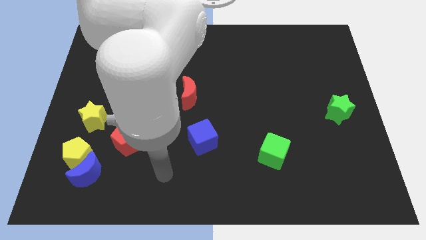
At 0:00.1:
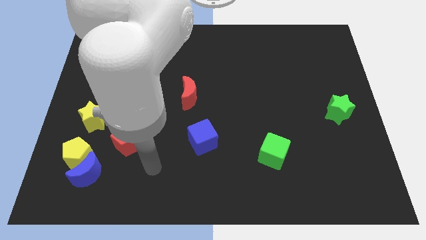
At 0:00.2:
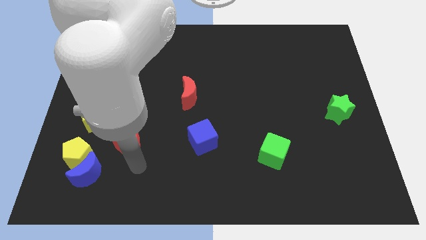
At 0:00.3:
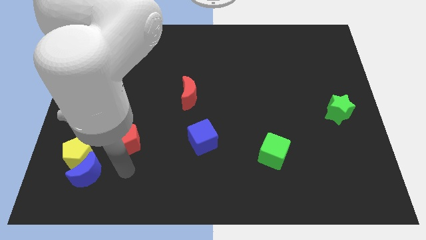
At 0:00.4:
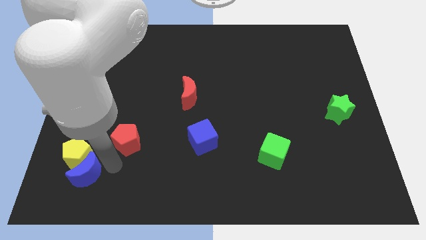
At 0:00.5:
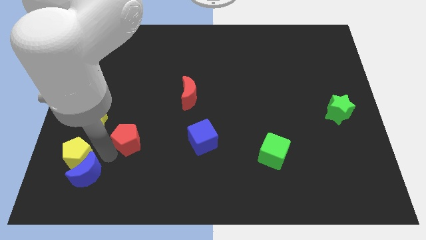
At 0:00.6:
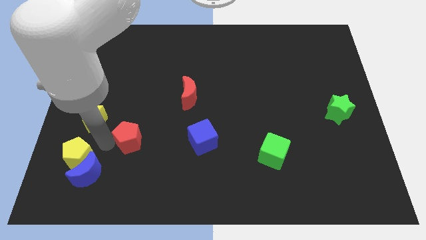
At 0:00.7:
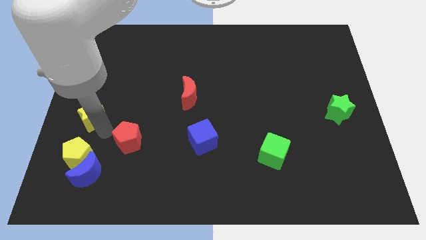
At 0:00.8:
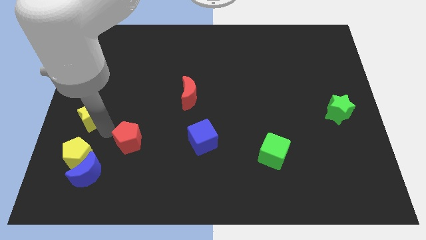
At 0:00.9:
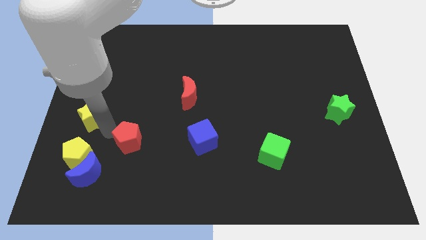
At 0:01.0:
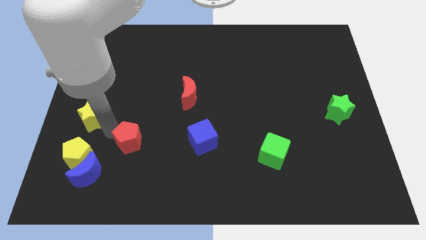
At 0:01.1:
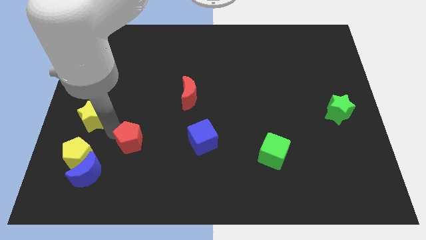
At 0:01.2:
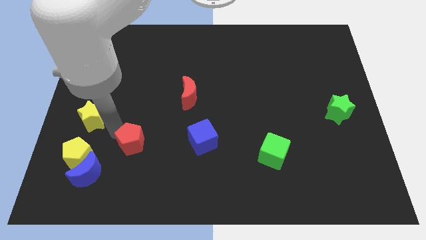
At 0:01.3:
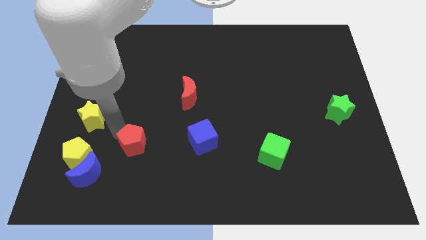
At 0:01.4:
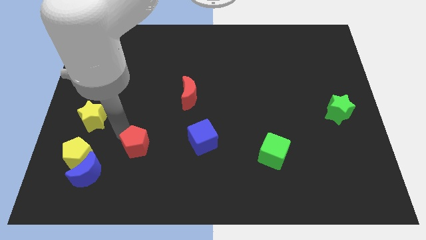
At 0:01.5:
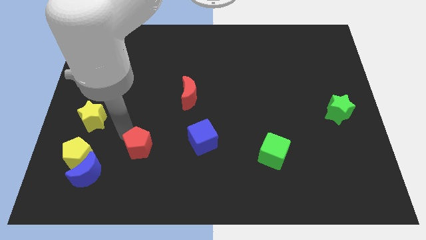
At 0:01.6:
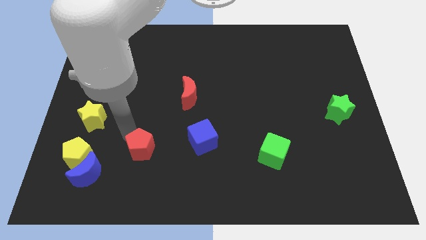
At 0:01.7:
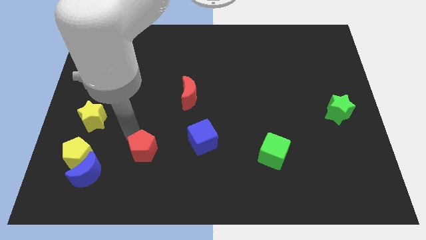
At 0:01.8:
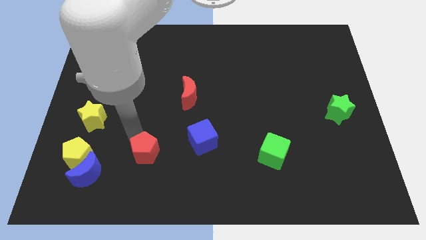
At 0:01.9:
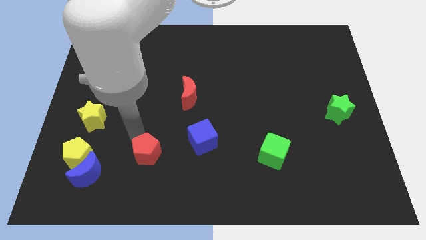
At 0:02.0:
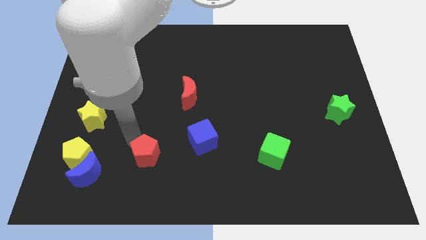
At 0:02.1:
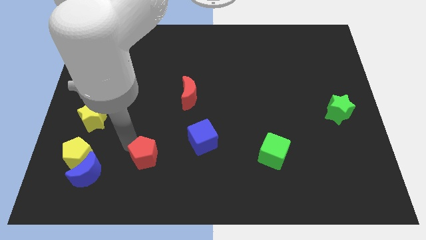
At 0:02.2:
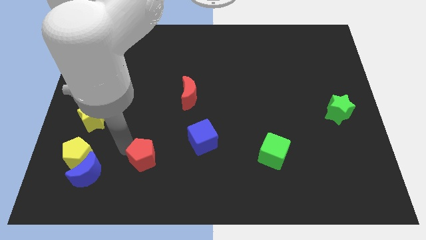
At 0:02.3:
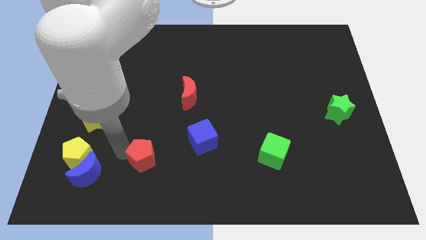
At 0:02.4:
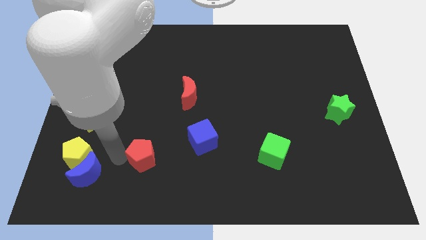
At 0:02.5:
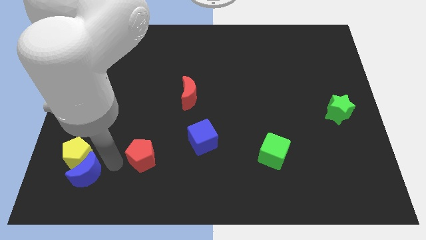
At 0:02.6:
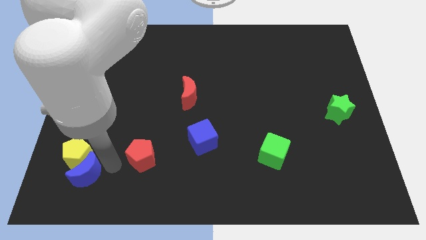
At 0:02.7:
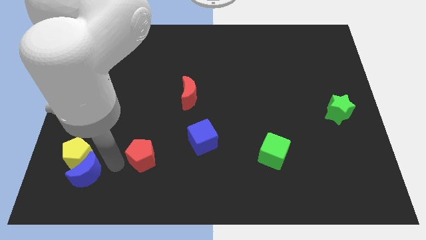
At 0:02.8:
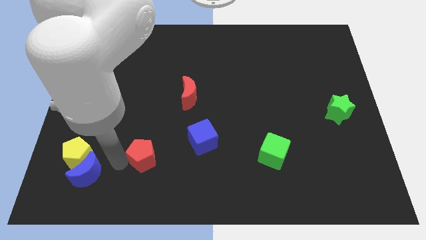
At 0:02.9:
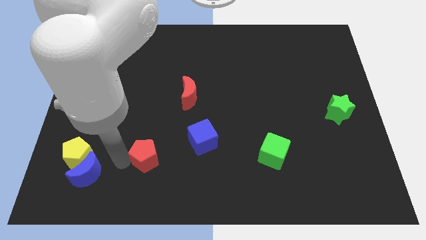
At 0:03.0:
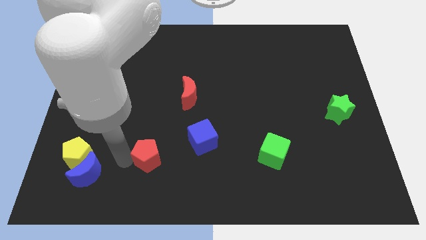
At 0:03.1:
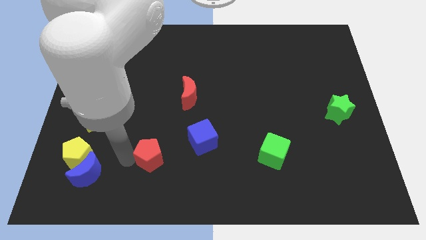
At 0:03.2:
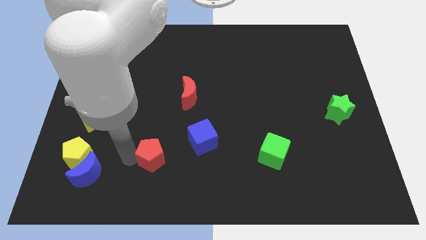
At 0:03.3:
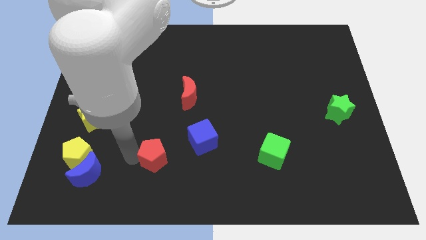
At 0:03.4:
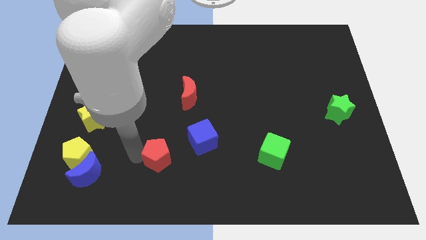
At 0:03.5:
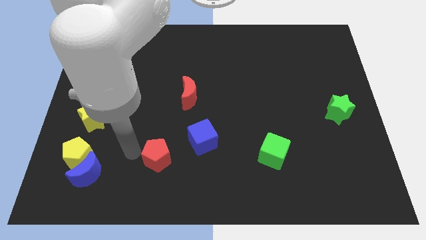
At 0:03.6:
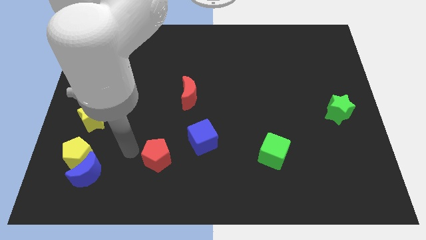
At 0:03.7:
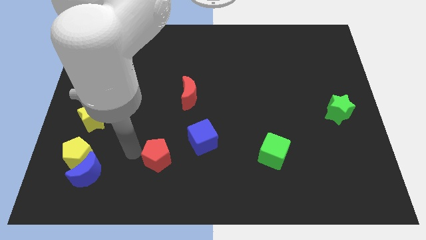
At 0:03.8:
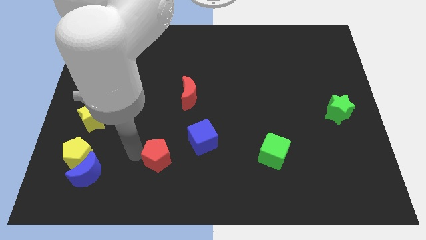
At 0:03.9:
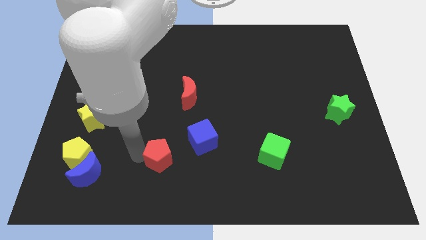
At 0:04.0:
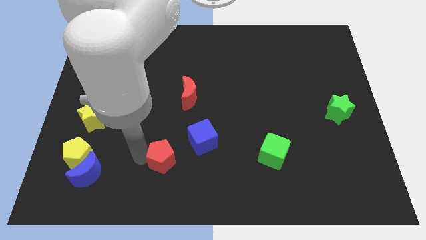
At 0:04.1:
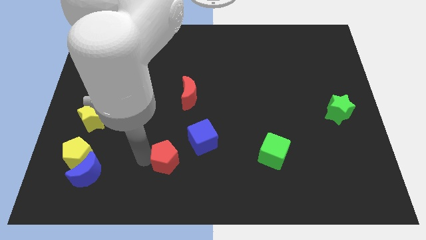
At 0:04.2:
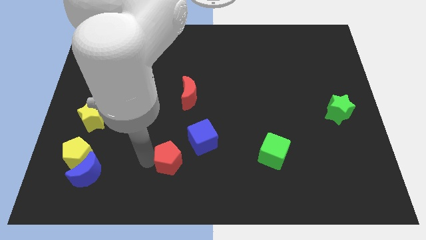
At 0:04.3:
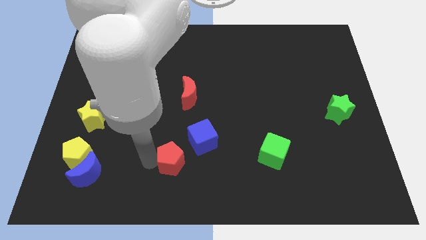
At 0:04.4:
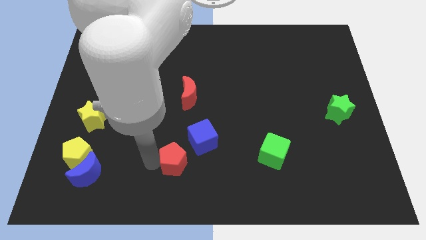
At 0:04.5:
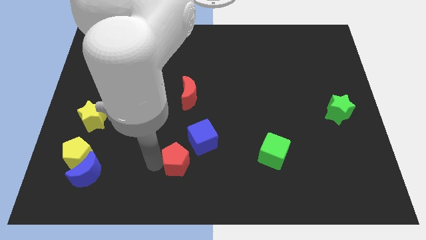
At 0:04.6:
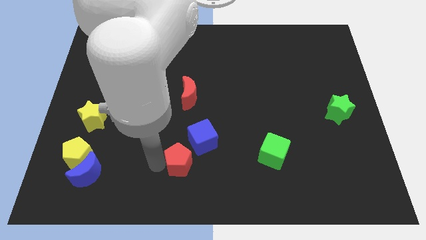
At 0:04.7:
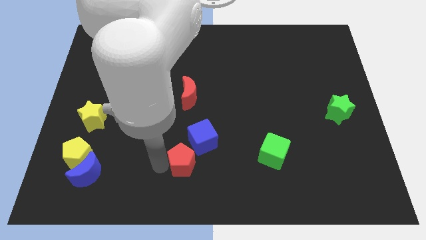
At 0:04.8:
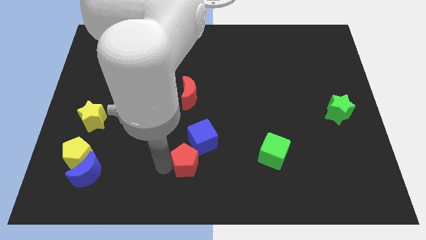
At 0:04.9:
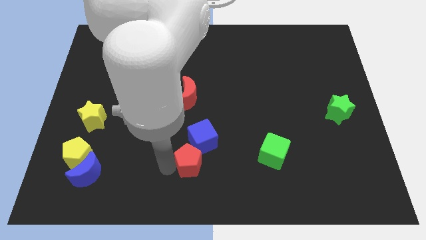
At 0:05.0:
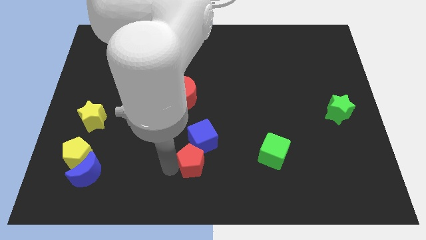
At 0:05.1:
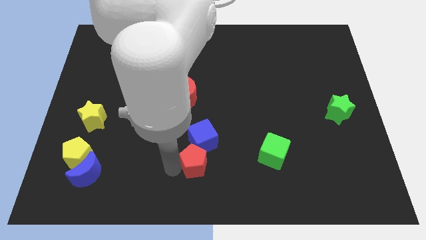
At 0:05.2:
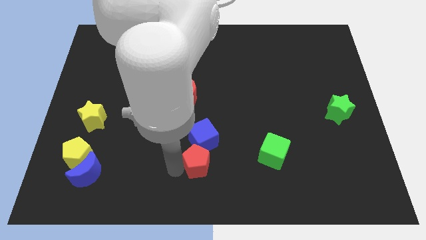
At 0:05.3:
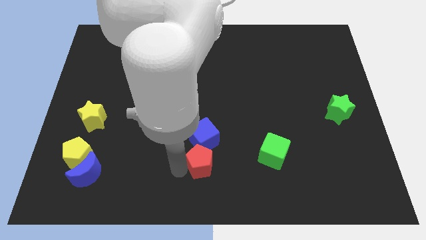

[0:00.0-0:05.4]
slide the red pentagon just left of the green cube

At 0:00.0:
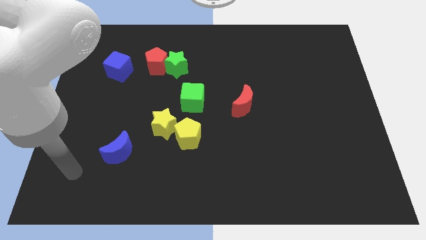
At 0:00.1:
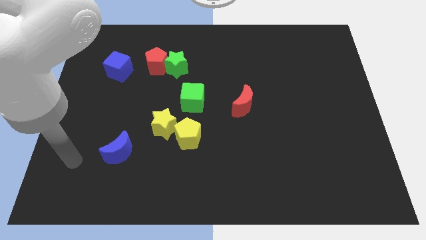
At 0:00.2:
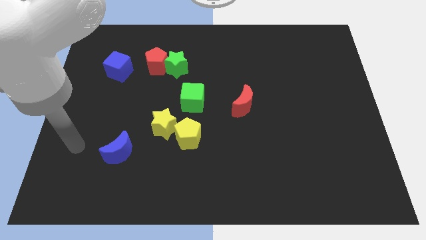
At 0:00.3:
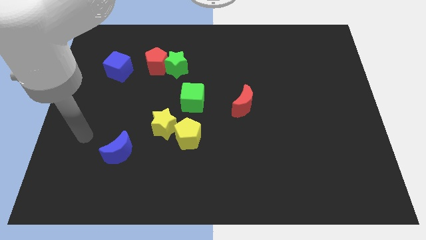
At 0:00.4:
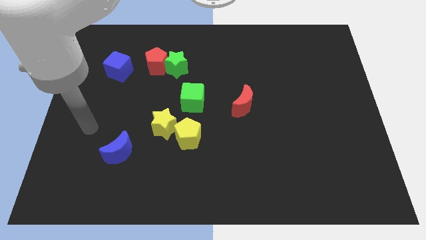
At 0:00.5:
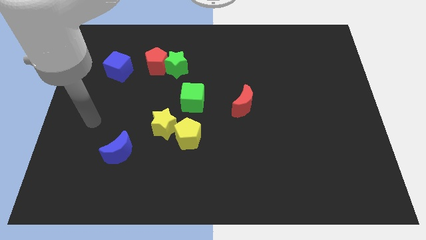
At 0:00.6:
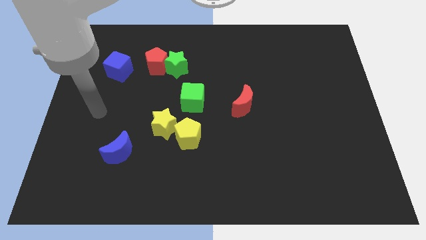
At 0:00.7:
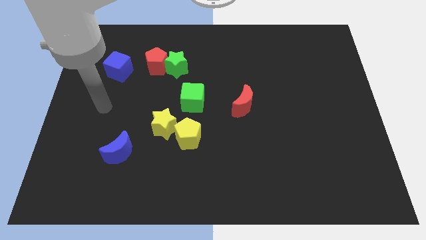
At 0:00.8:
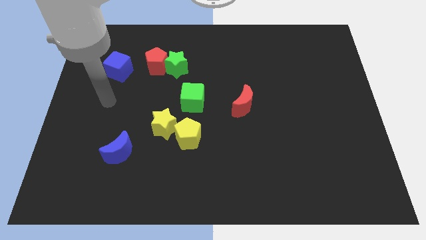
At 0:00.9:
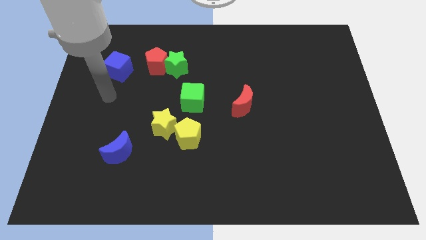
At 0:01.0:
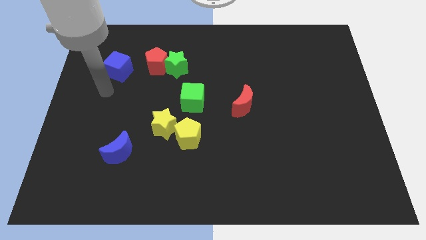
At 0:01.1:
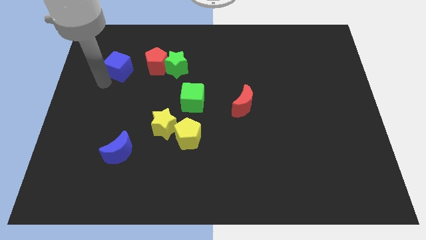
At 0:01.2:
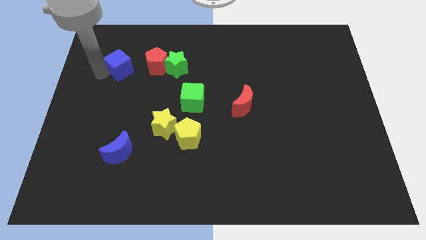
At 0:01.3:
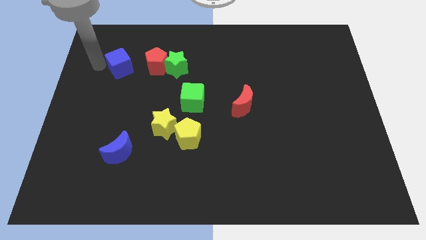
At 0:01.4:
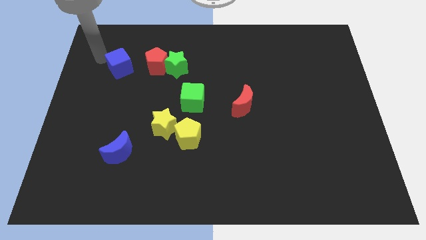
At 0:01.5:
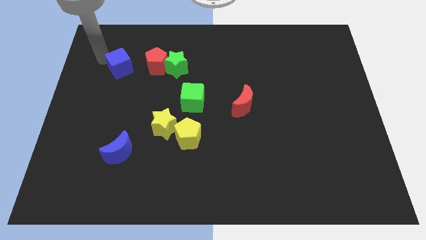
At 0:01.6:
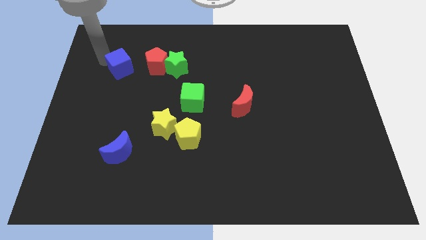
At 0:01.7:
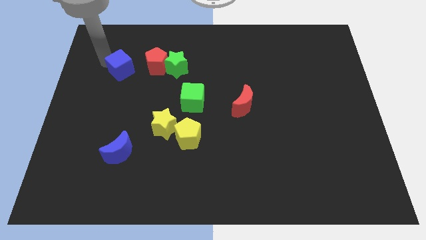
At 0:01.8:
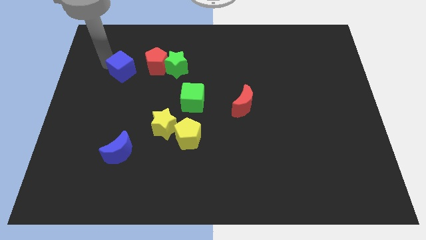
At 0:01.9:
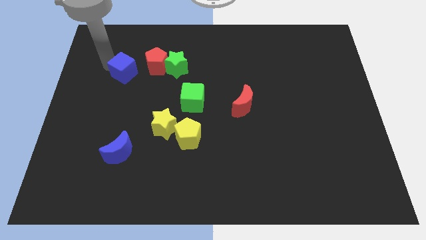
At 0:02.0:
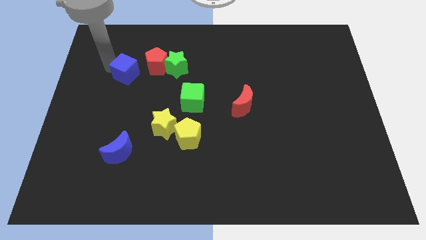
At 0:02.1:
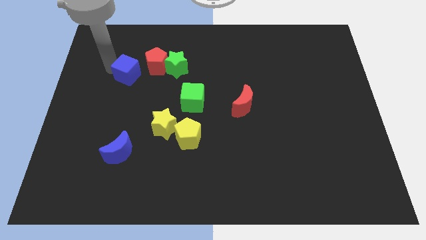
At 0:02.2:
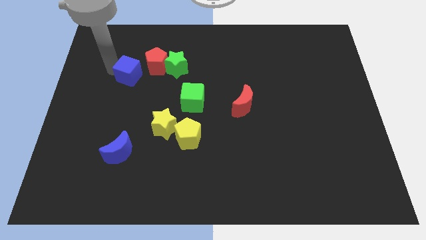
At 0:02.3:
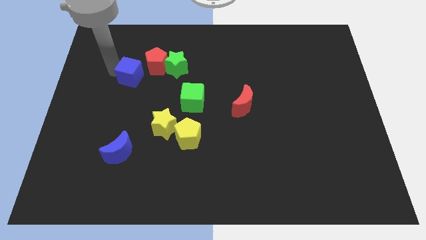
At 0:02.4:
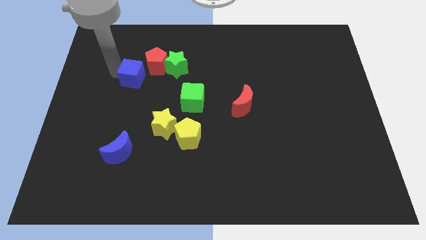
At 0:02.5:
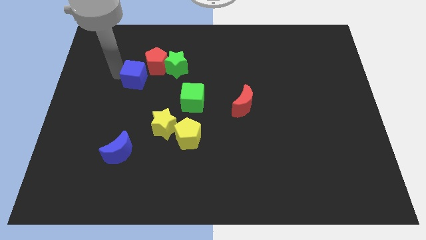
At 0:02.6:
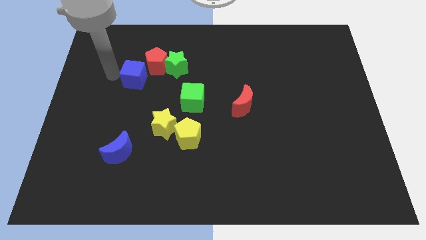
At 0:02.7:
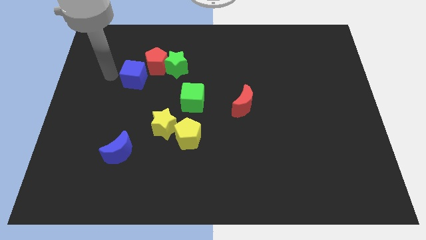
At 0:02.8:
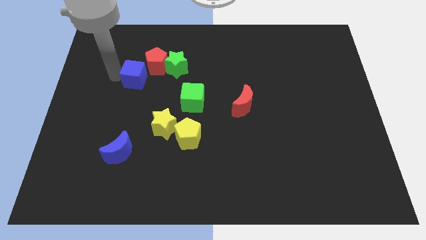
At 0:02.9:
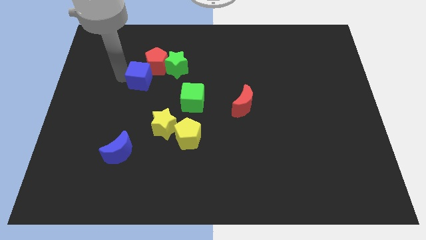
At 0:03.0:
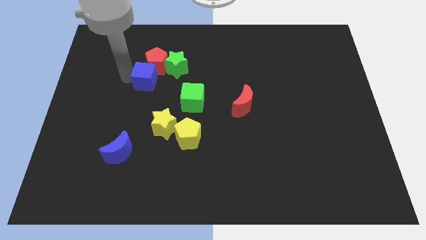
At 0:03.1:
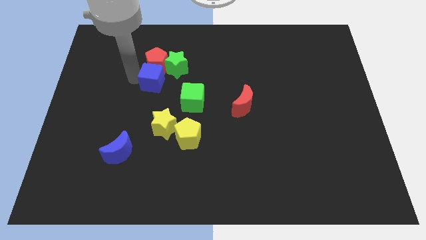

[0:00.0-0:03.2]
slide the blue cube to the top left side of the green cube
